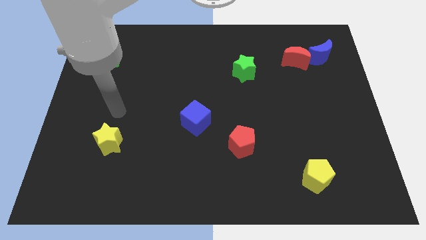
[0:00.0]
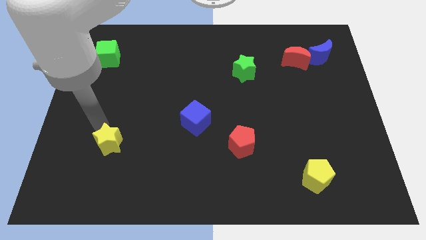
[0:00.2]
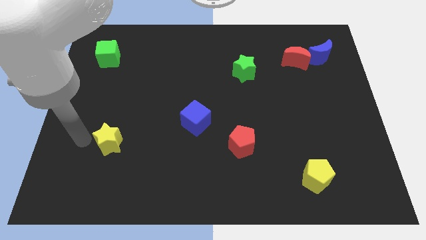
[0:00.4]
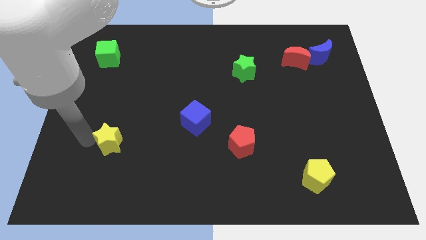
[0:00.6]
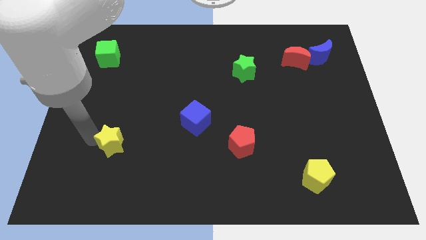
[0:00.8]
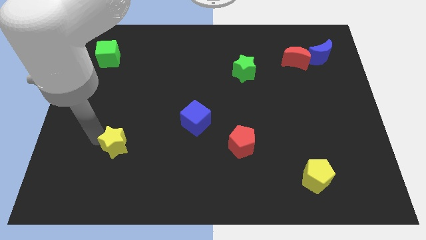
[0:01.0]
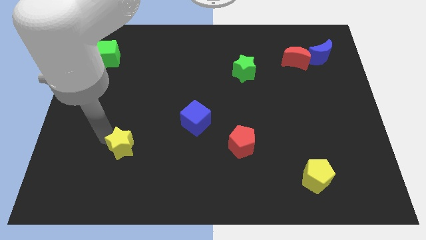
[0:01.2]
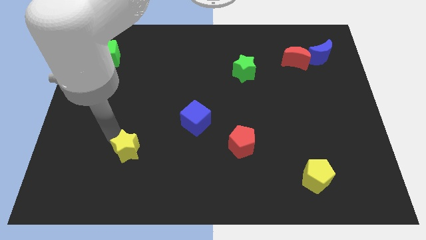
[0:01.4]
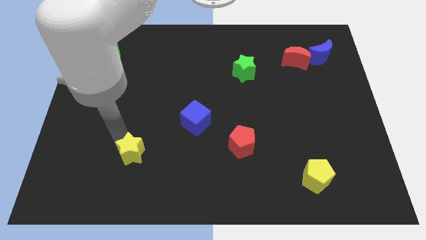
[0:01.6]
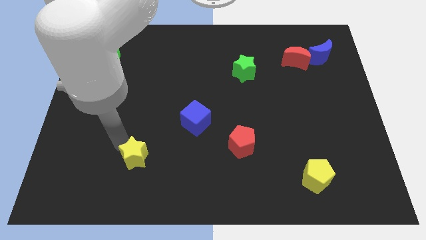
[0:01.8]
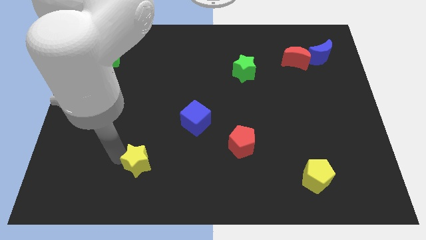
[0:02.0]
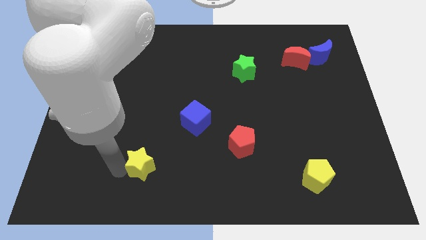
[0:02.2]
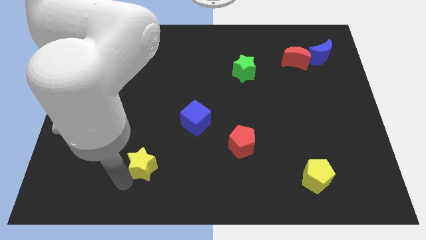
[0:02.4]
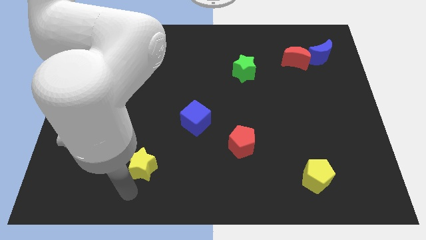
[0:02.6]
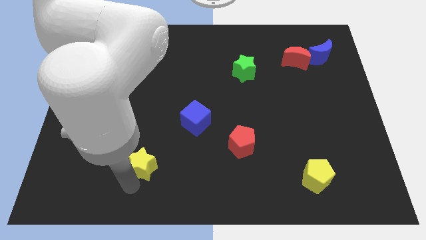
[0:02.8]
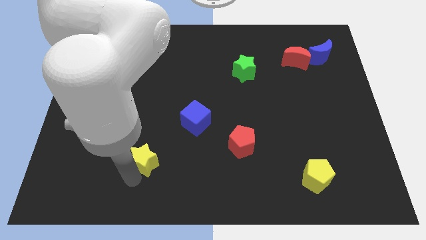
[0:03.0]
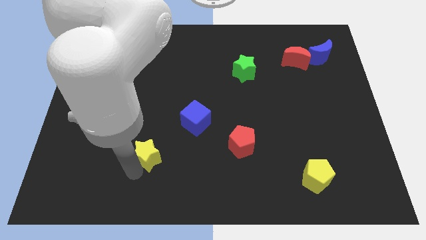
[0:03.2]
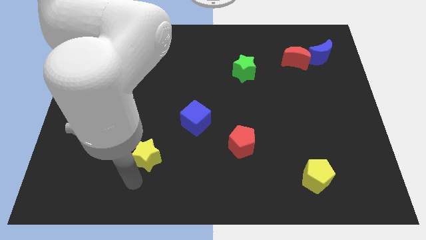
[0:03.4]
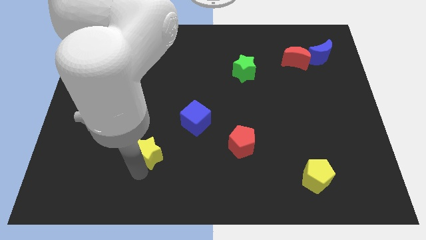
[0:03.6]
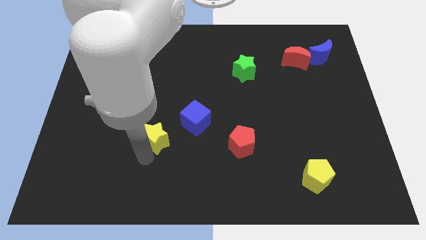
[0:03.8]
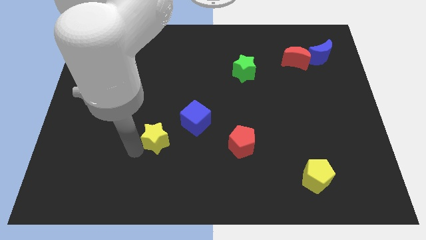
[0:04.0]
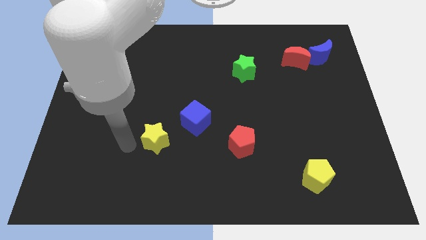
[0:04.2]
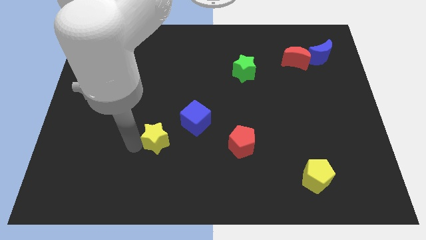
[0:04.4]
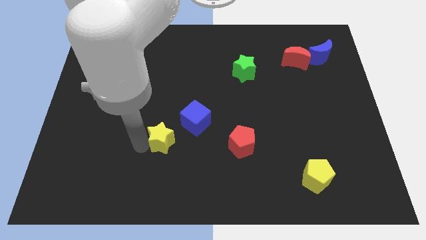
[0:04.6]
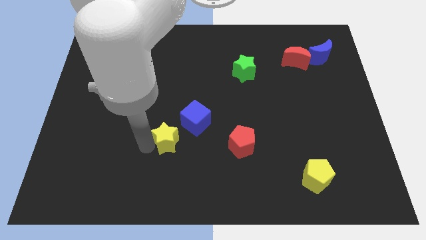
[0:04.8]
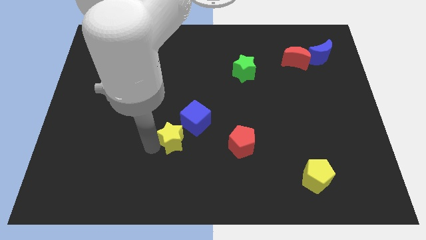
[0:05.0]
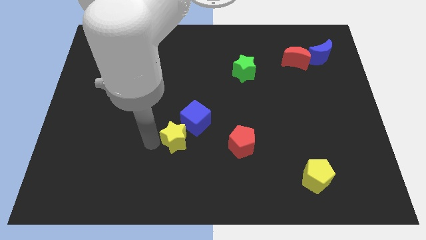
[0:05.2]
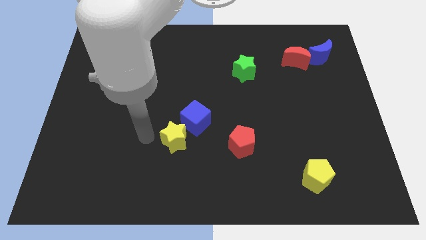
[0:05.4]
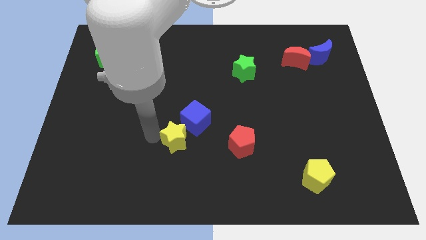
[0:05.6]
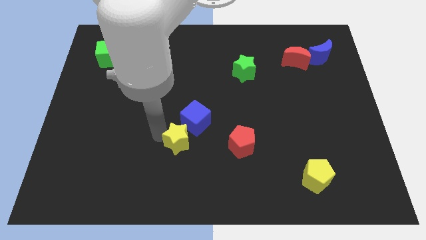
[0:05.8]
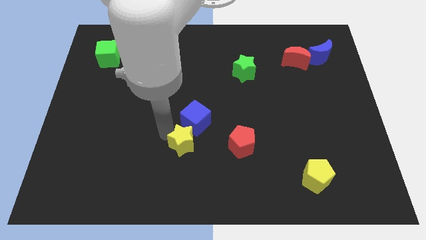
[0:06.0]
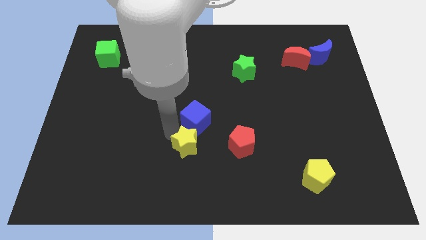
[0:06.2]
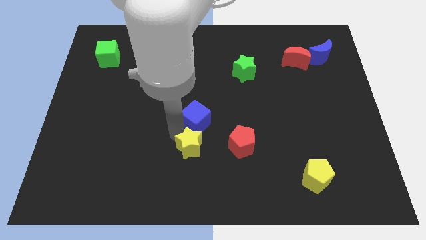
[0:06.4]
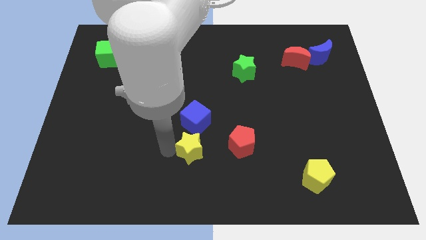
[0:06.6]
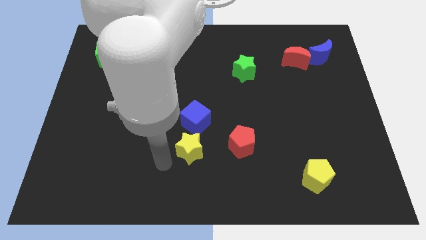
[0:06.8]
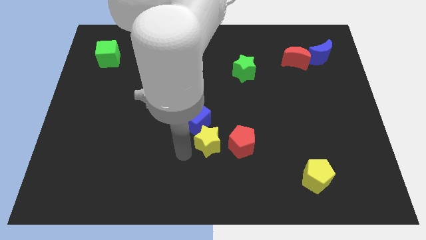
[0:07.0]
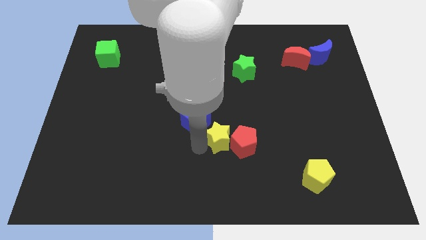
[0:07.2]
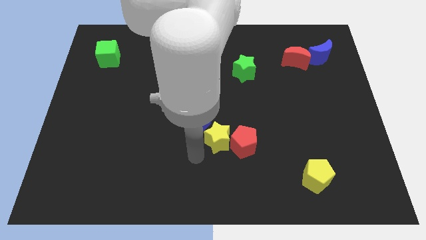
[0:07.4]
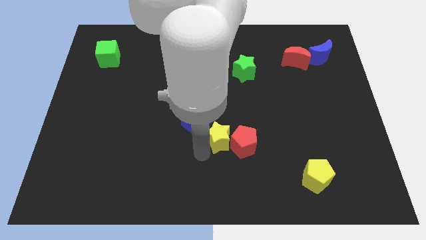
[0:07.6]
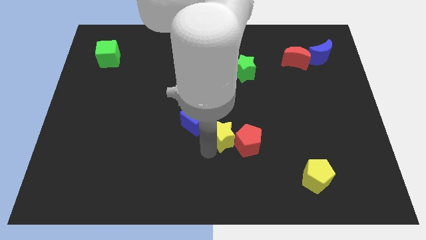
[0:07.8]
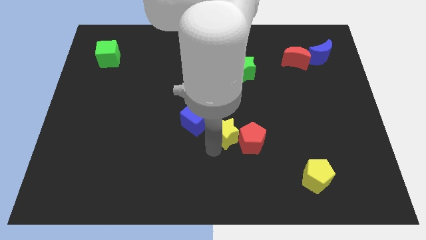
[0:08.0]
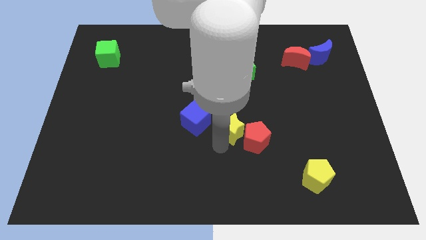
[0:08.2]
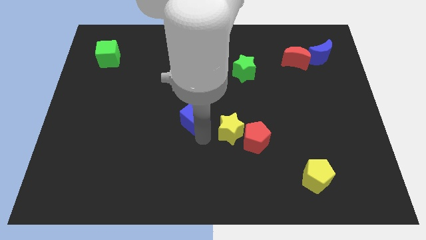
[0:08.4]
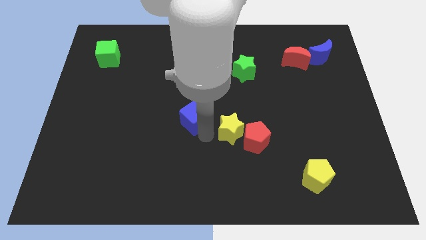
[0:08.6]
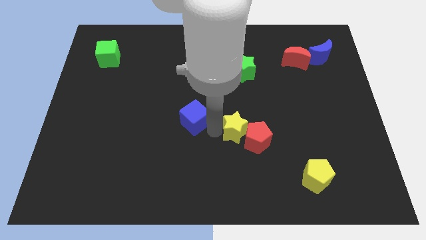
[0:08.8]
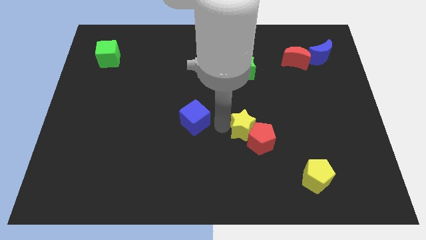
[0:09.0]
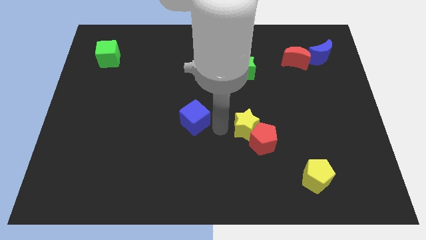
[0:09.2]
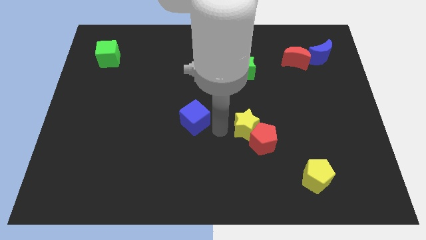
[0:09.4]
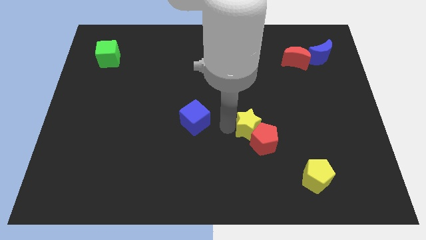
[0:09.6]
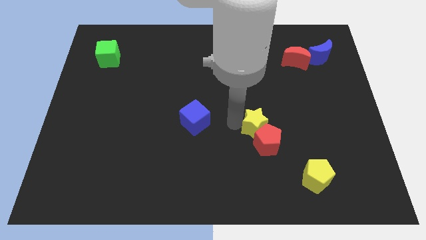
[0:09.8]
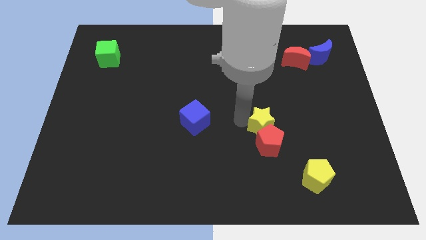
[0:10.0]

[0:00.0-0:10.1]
put the yellow star to the top right of the red pentagon

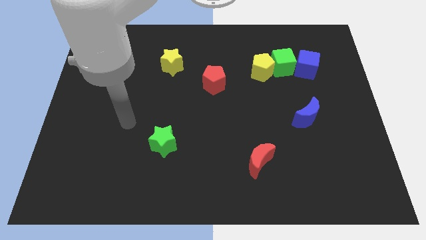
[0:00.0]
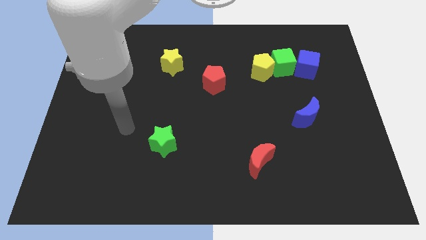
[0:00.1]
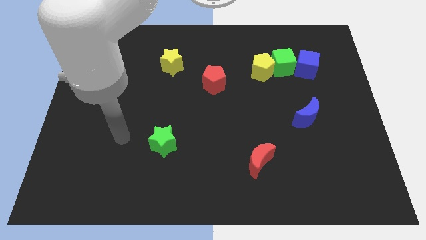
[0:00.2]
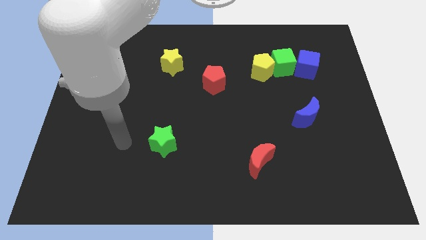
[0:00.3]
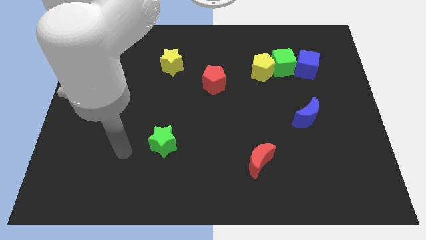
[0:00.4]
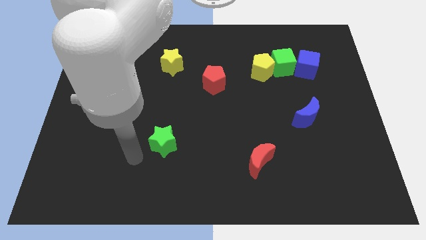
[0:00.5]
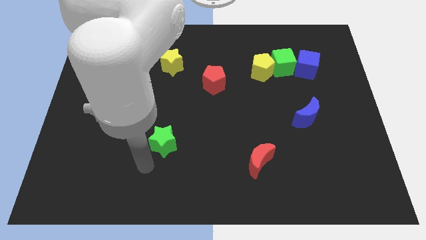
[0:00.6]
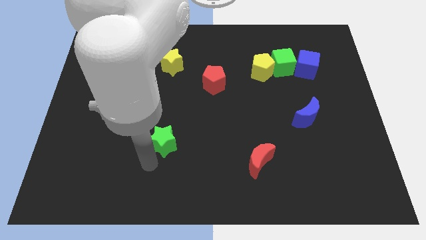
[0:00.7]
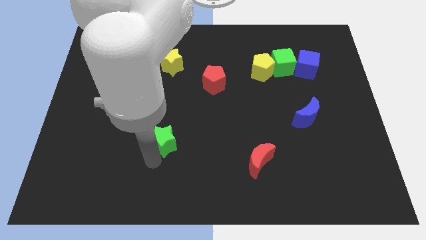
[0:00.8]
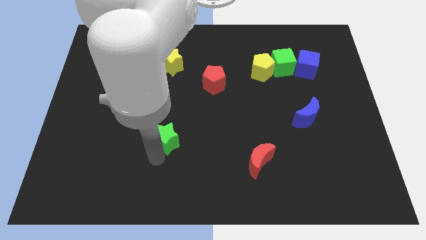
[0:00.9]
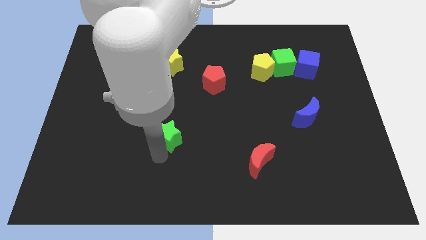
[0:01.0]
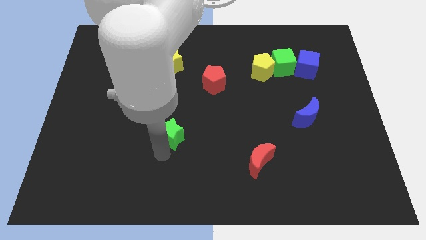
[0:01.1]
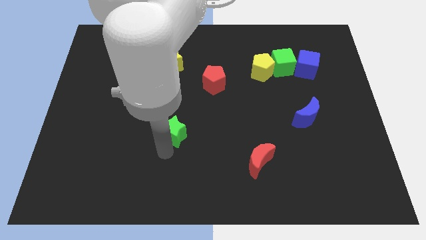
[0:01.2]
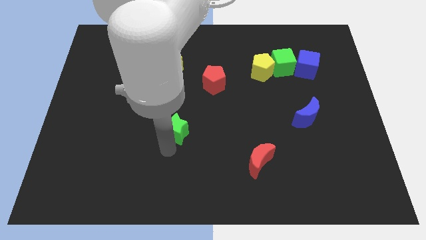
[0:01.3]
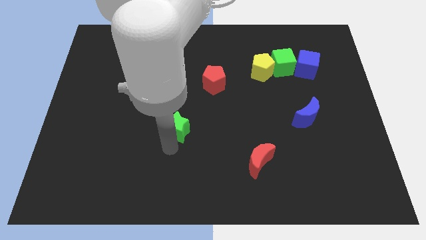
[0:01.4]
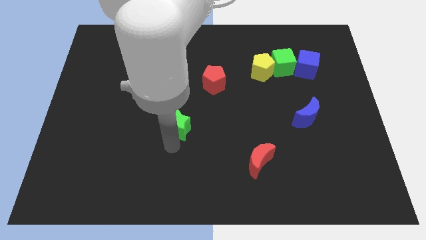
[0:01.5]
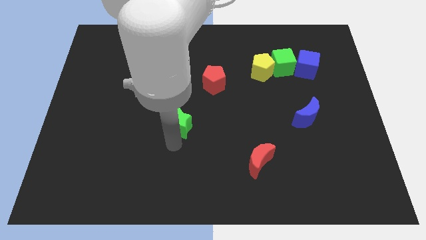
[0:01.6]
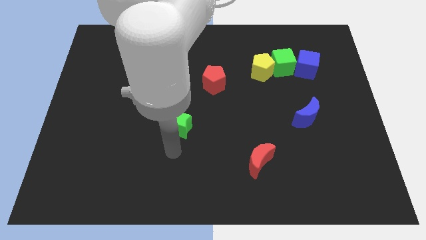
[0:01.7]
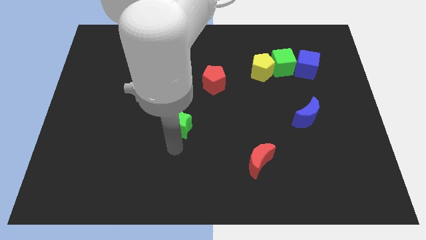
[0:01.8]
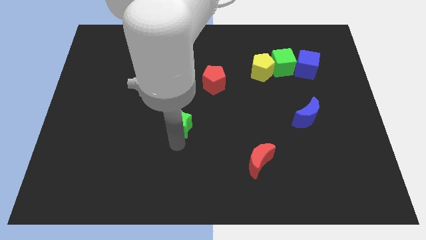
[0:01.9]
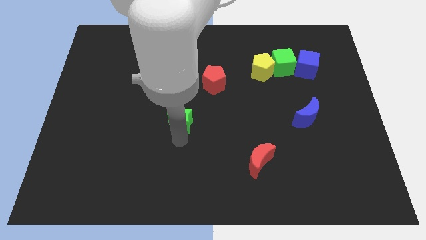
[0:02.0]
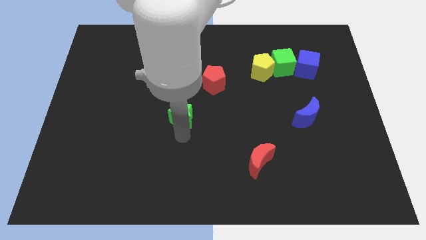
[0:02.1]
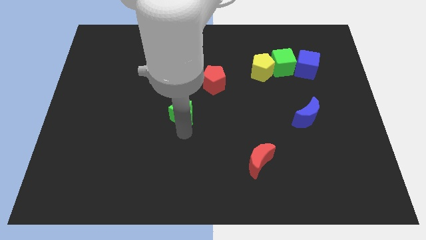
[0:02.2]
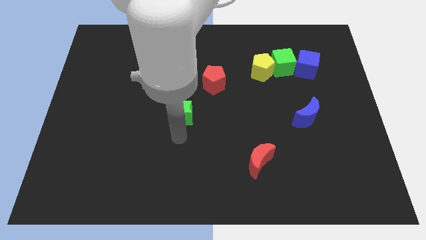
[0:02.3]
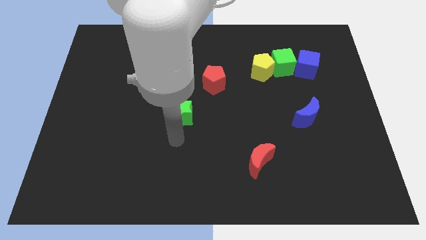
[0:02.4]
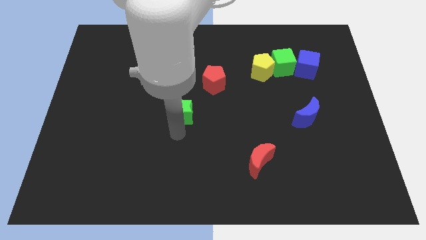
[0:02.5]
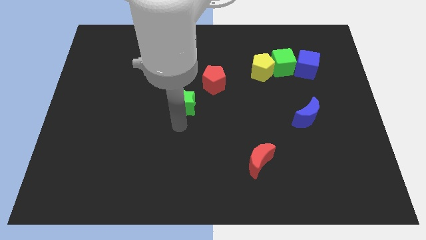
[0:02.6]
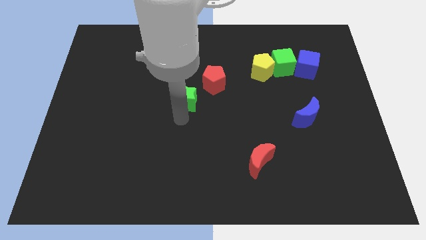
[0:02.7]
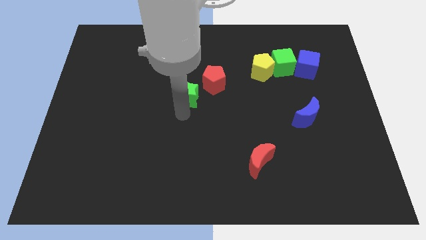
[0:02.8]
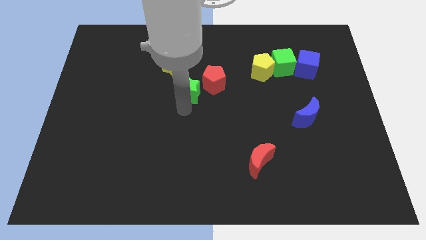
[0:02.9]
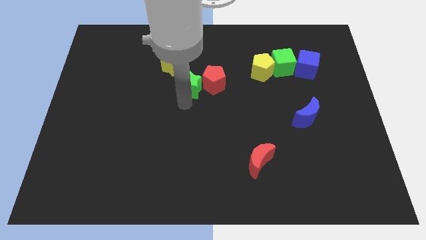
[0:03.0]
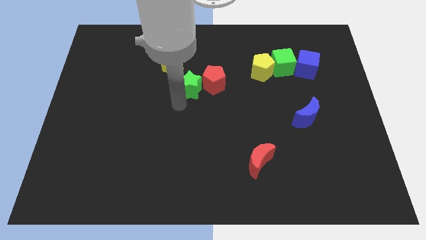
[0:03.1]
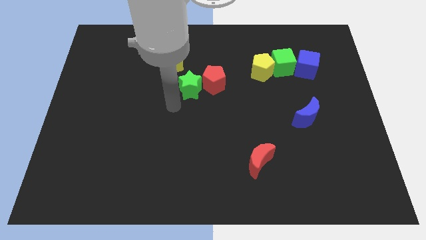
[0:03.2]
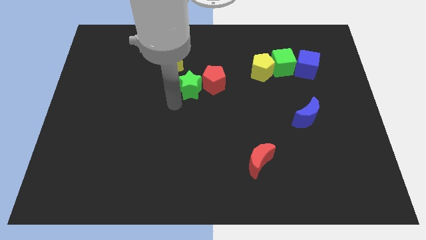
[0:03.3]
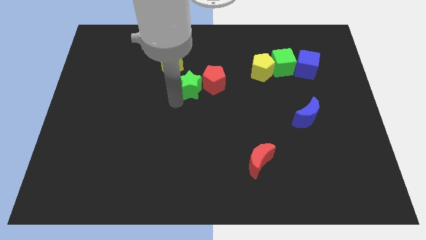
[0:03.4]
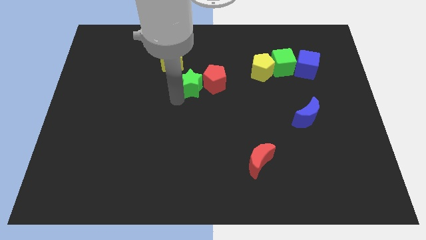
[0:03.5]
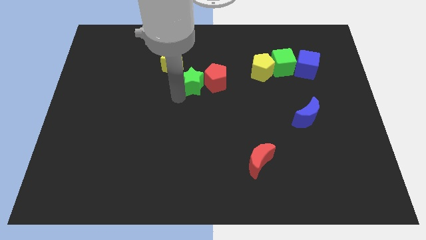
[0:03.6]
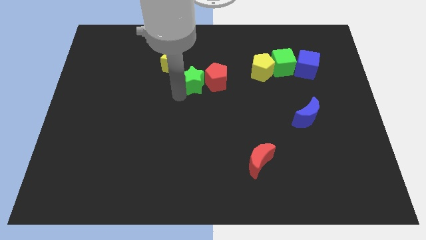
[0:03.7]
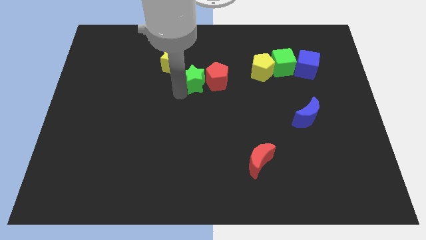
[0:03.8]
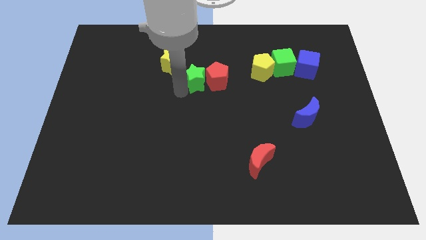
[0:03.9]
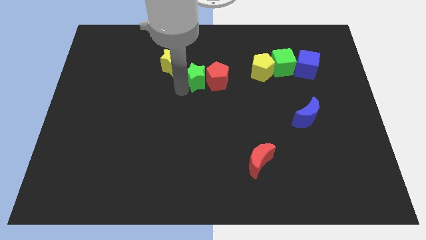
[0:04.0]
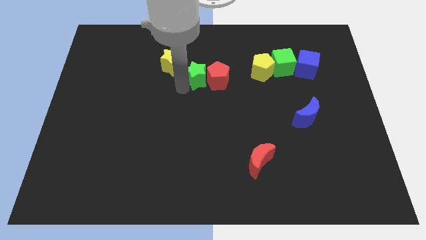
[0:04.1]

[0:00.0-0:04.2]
put the green star just right of the yellow star
